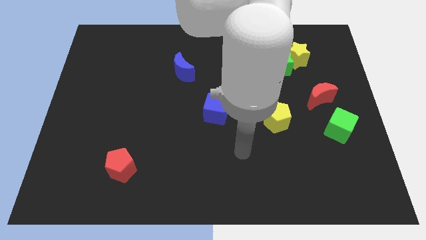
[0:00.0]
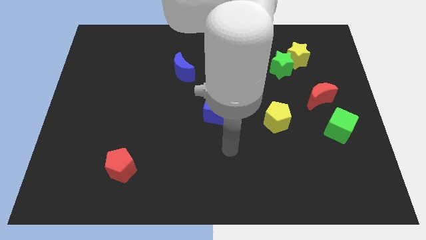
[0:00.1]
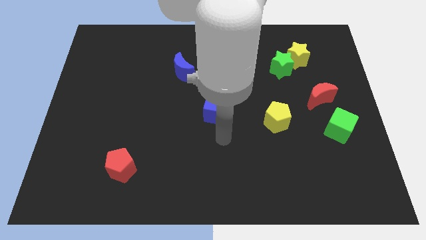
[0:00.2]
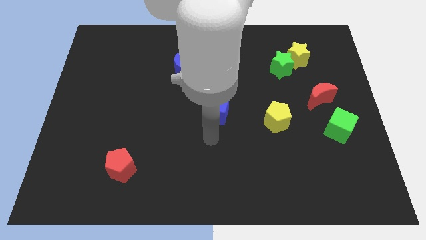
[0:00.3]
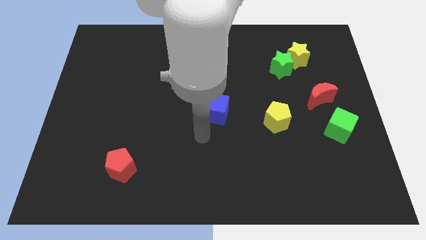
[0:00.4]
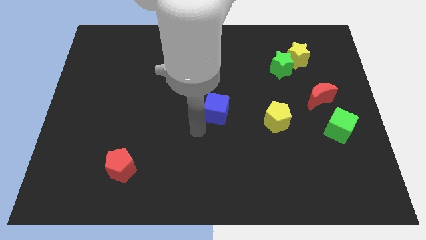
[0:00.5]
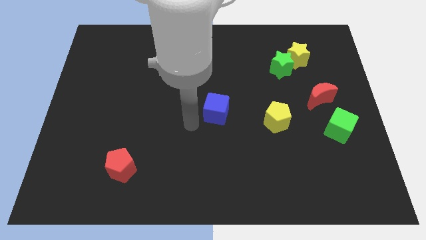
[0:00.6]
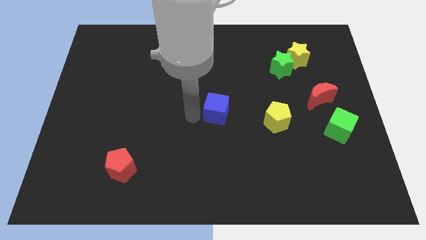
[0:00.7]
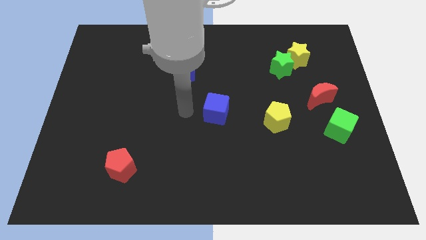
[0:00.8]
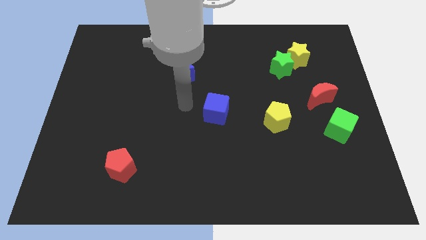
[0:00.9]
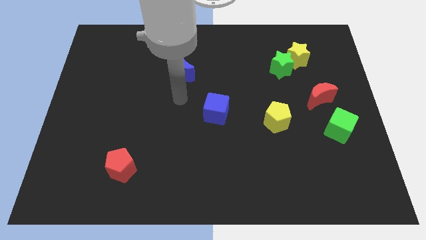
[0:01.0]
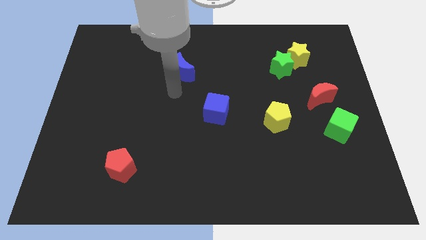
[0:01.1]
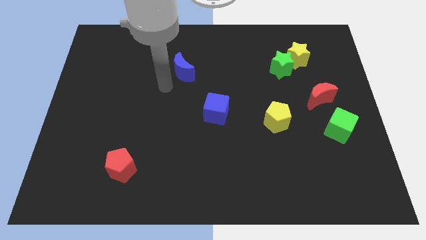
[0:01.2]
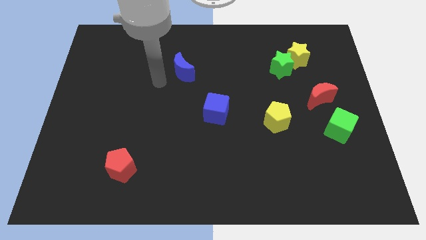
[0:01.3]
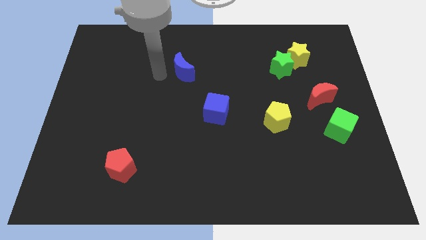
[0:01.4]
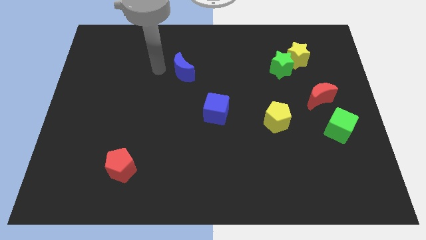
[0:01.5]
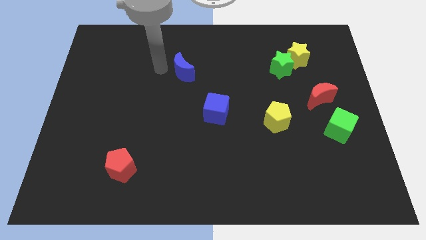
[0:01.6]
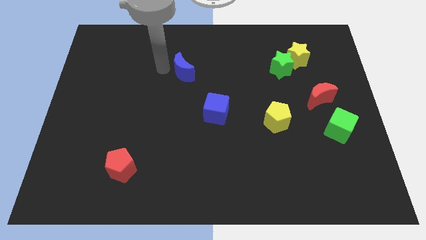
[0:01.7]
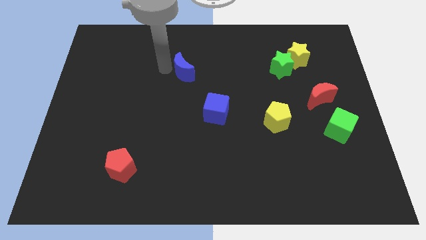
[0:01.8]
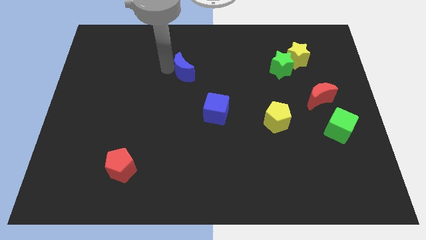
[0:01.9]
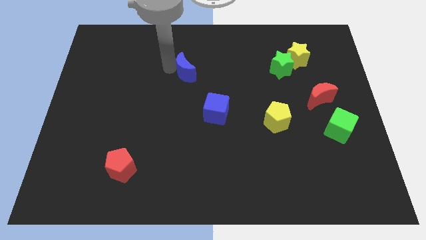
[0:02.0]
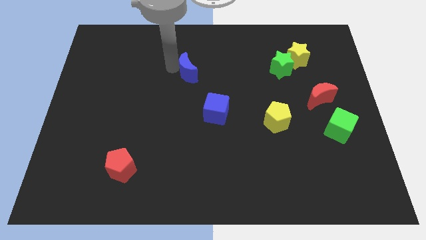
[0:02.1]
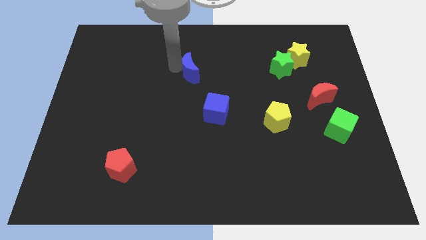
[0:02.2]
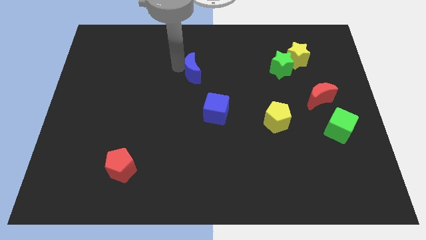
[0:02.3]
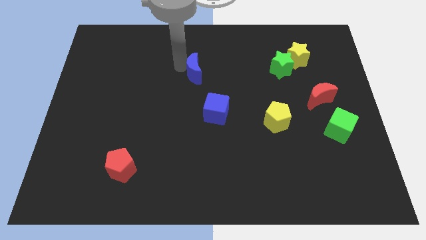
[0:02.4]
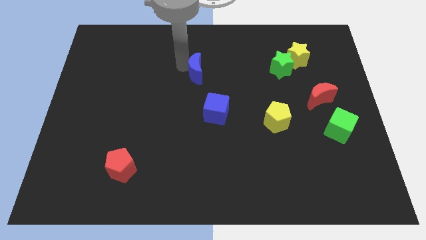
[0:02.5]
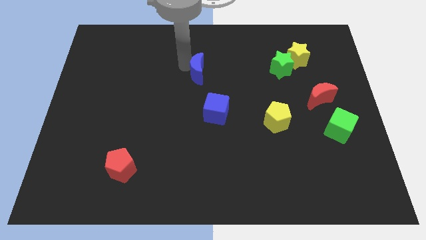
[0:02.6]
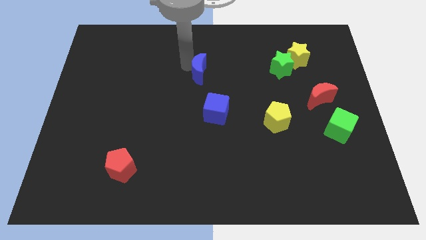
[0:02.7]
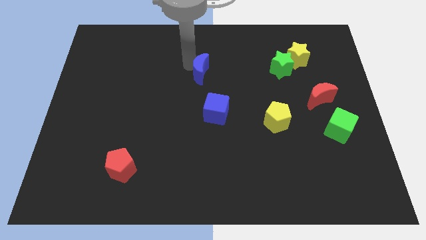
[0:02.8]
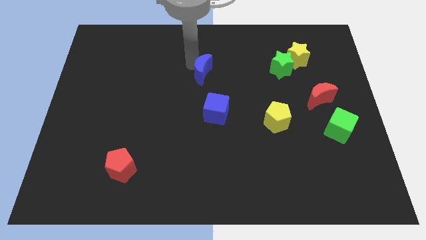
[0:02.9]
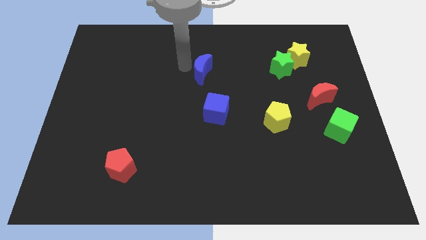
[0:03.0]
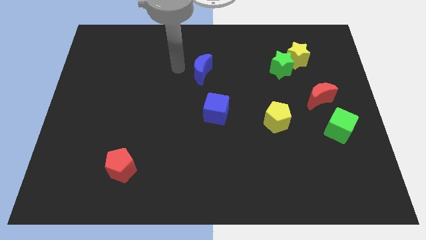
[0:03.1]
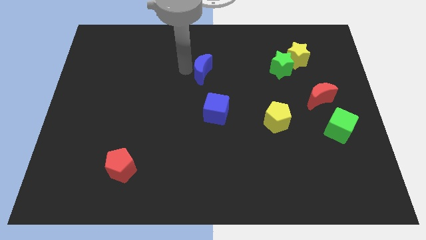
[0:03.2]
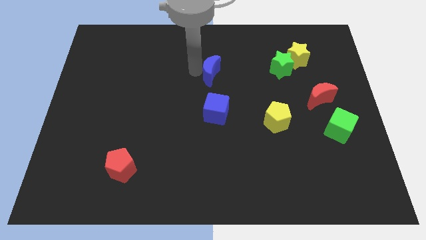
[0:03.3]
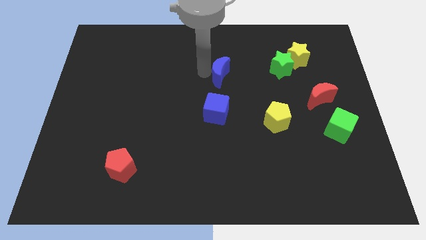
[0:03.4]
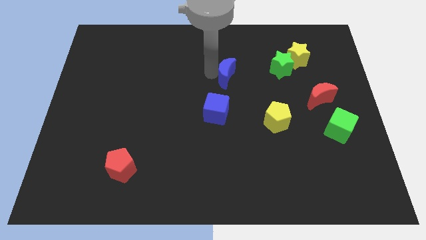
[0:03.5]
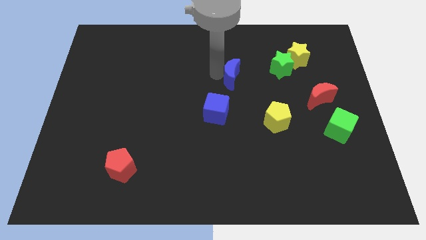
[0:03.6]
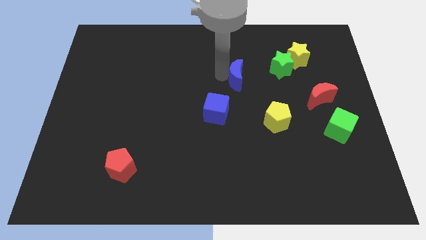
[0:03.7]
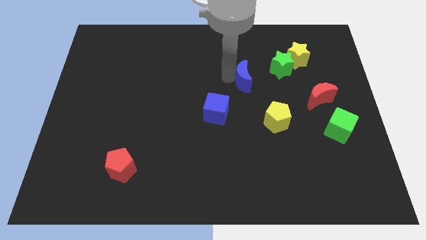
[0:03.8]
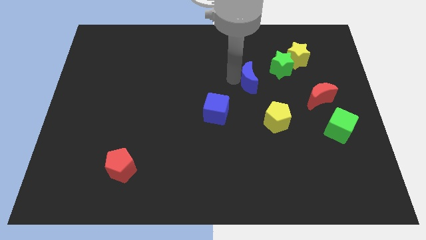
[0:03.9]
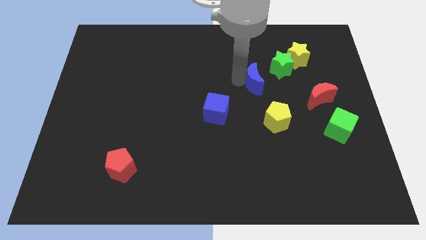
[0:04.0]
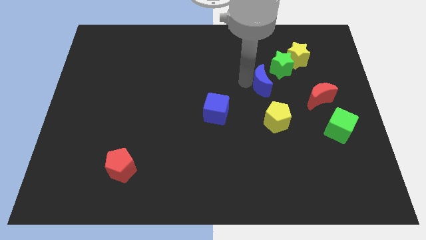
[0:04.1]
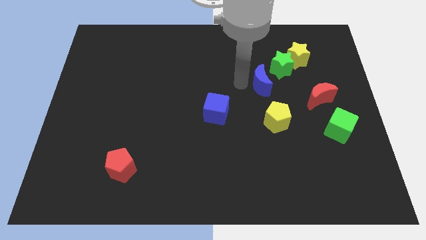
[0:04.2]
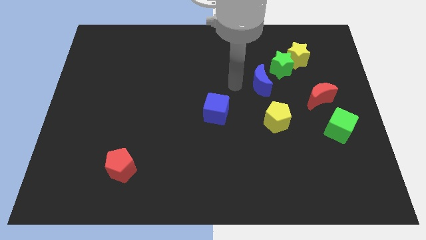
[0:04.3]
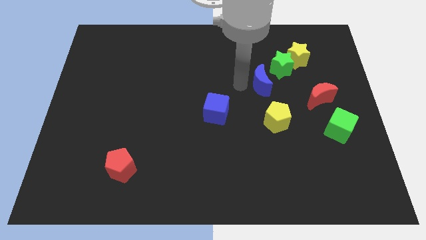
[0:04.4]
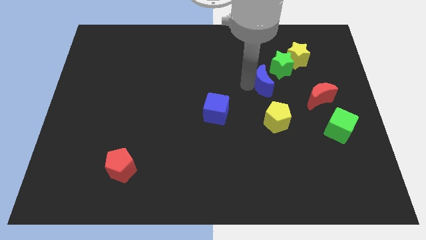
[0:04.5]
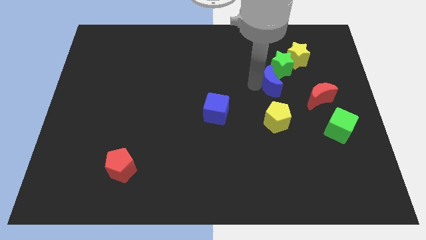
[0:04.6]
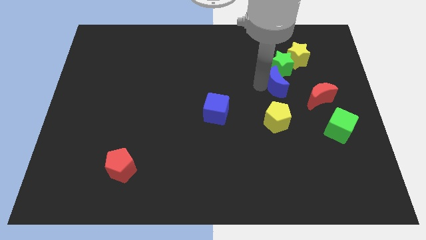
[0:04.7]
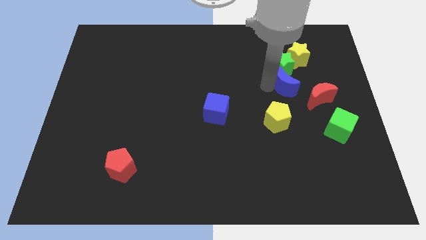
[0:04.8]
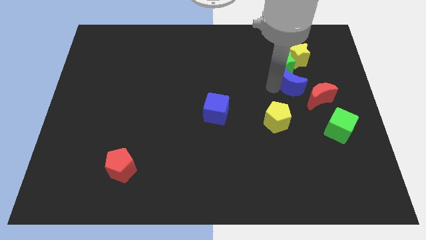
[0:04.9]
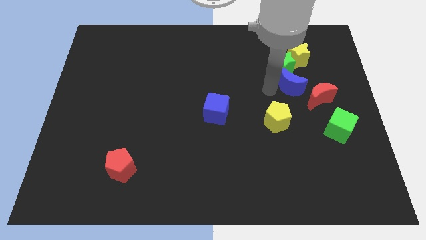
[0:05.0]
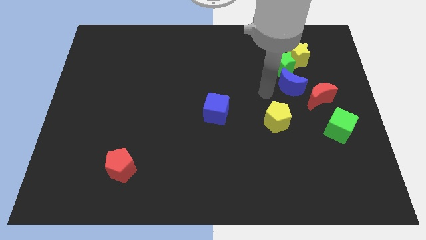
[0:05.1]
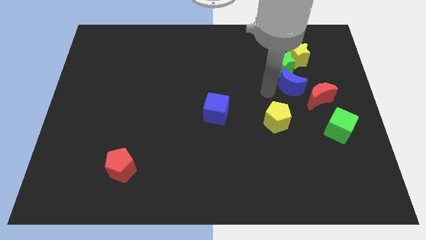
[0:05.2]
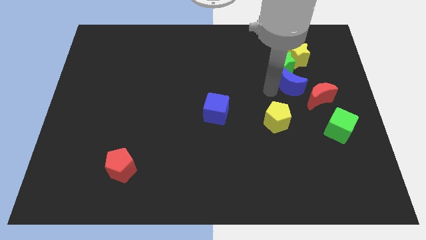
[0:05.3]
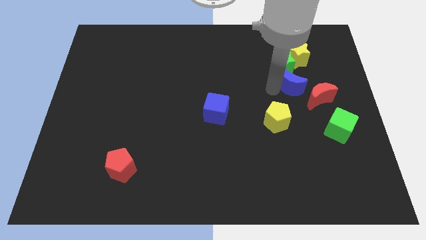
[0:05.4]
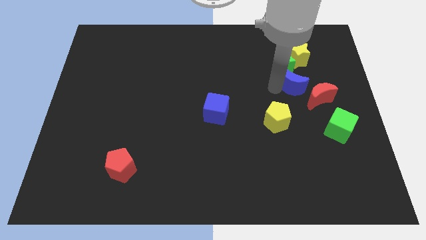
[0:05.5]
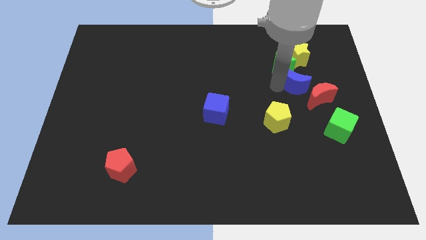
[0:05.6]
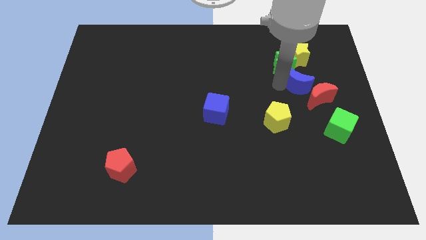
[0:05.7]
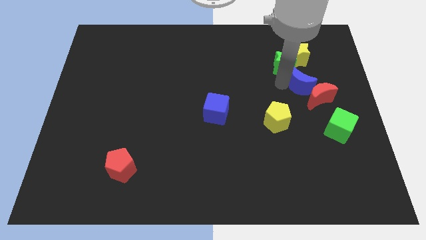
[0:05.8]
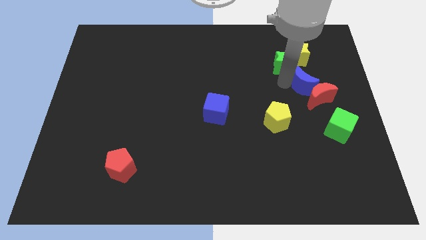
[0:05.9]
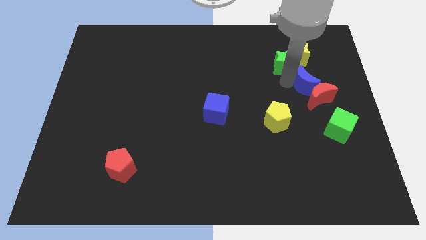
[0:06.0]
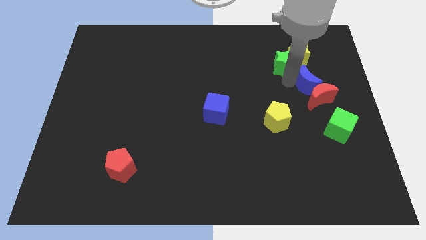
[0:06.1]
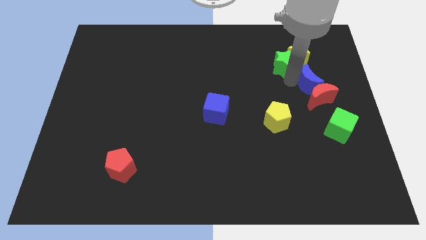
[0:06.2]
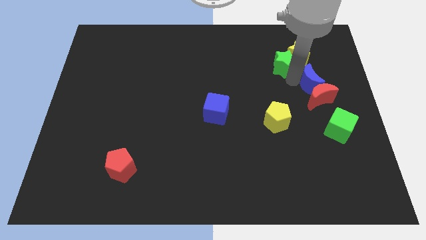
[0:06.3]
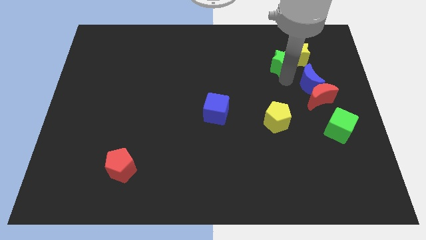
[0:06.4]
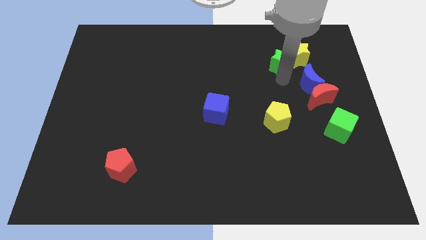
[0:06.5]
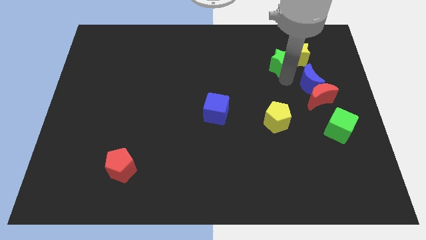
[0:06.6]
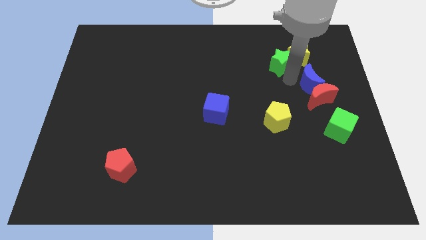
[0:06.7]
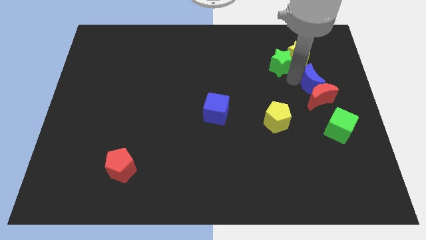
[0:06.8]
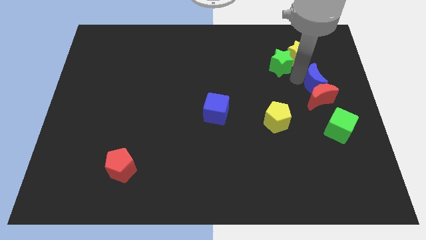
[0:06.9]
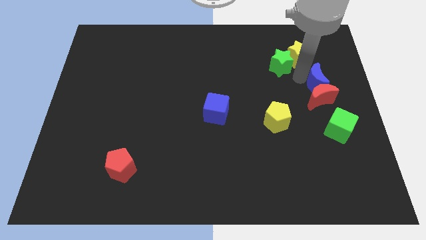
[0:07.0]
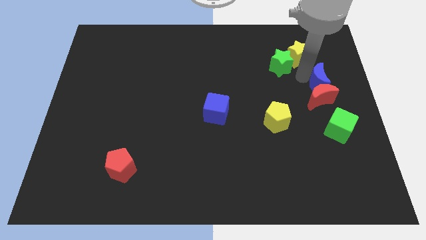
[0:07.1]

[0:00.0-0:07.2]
push the blue moon to the right side of the board

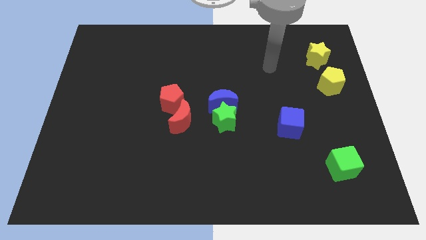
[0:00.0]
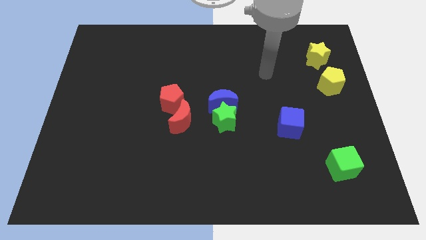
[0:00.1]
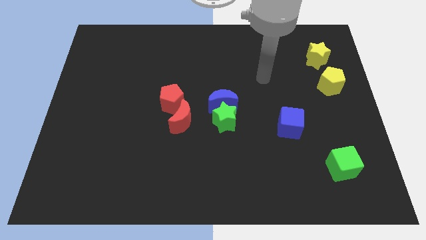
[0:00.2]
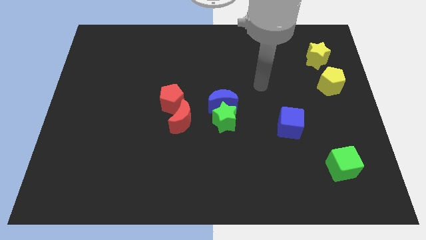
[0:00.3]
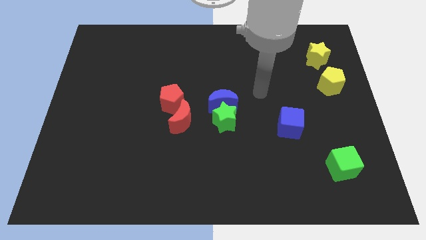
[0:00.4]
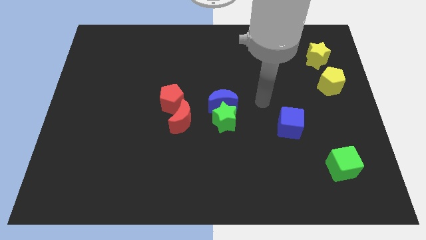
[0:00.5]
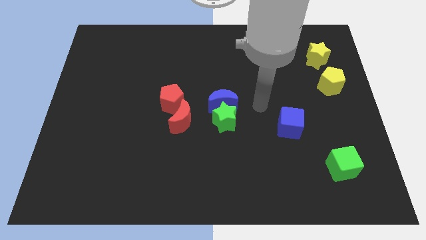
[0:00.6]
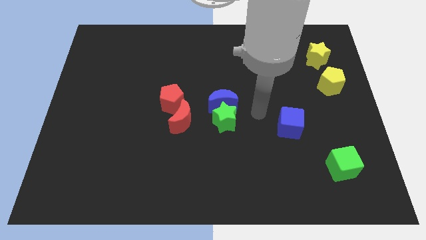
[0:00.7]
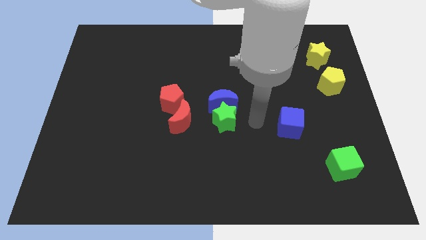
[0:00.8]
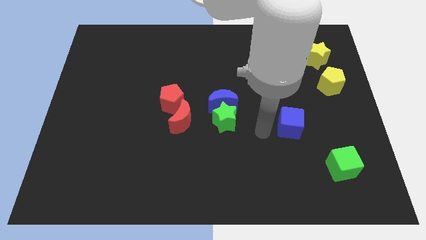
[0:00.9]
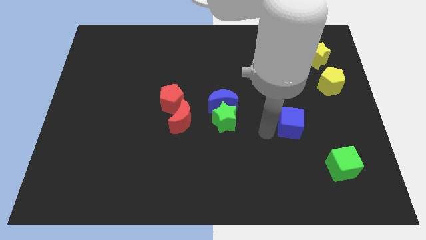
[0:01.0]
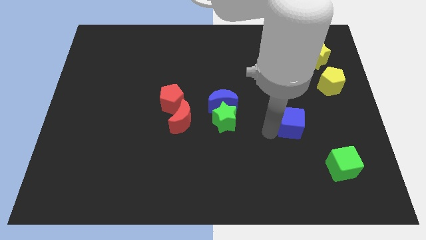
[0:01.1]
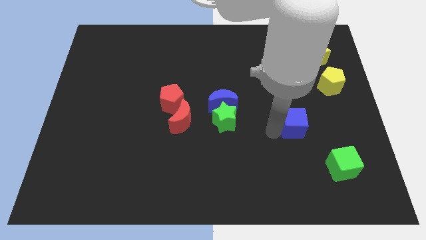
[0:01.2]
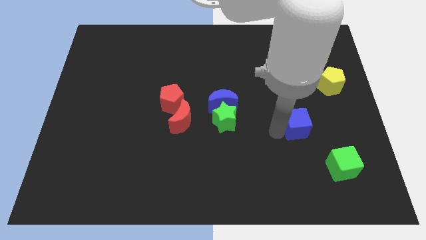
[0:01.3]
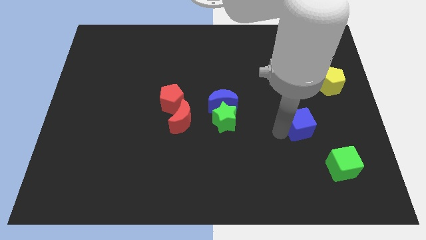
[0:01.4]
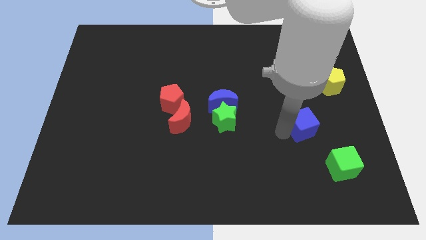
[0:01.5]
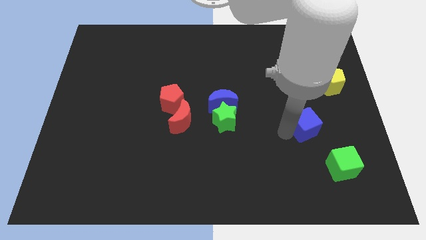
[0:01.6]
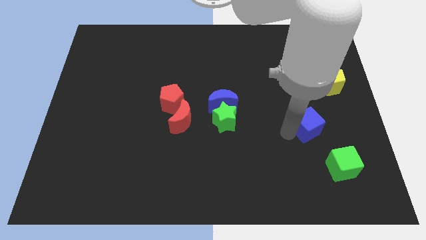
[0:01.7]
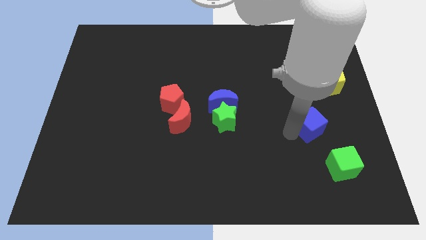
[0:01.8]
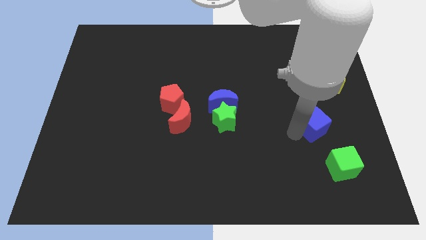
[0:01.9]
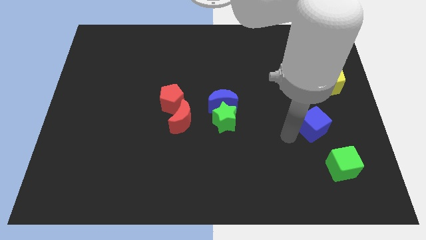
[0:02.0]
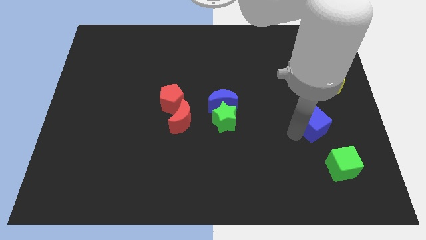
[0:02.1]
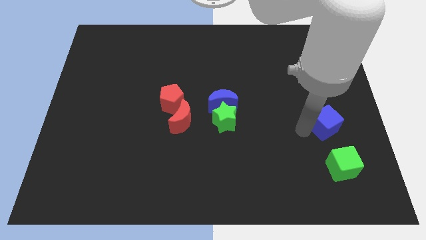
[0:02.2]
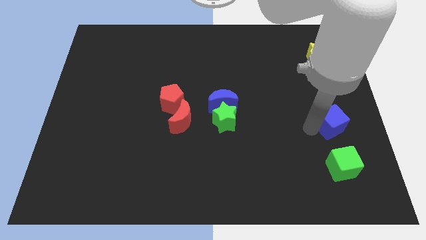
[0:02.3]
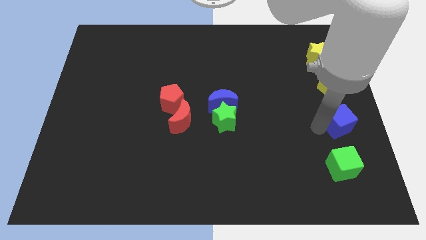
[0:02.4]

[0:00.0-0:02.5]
put the blue cube to the right side of the board
